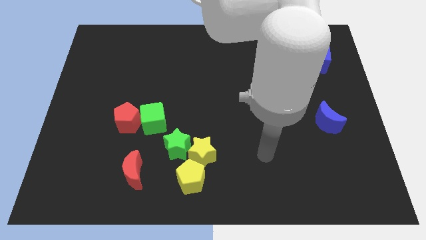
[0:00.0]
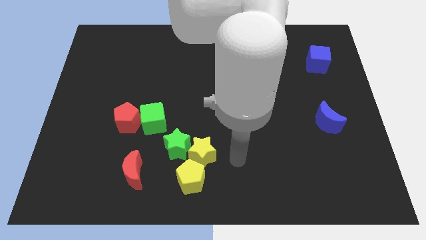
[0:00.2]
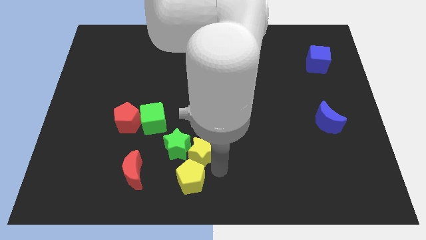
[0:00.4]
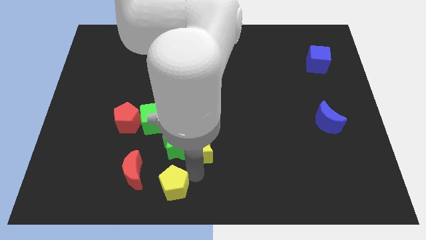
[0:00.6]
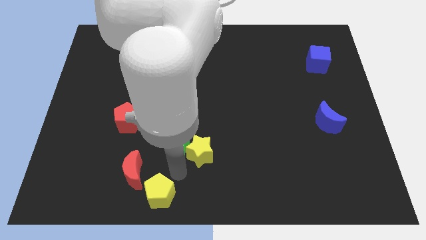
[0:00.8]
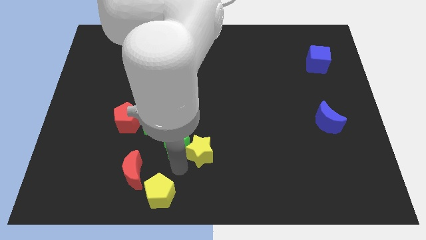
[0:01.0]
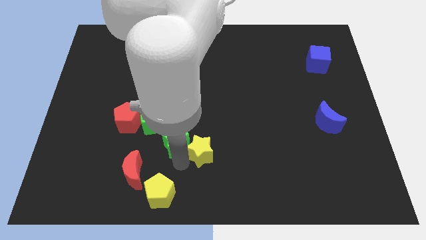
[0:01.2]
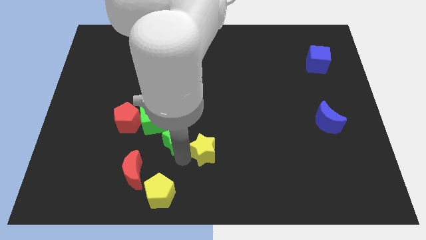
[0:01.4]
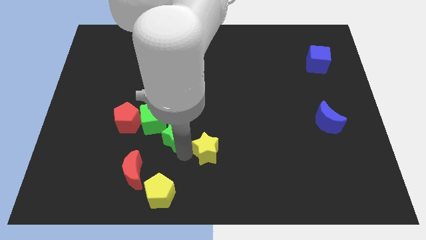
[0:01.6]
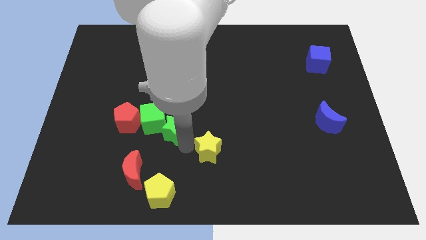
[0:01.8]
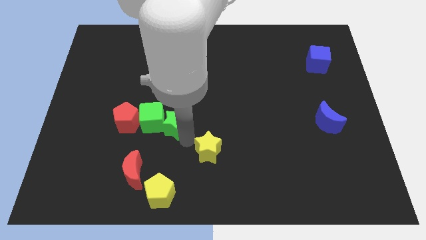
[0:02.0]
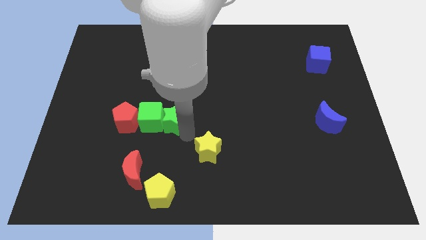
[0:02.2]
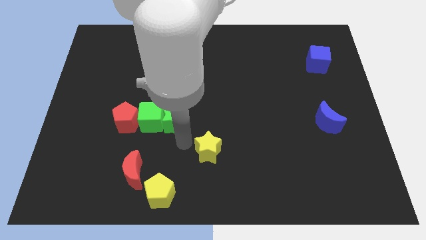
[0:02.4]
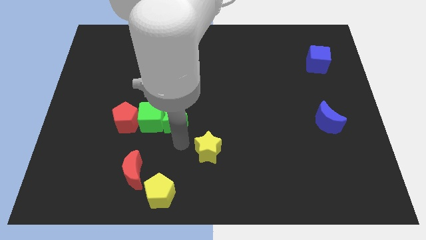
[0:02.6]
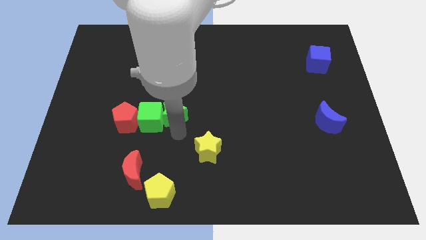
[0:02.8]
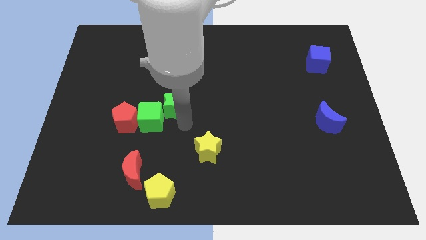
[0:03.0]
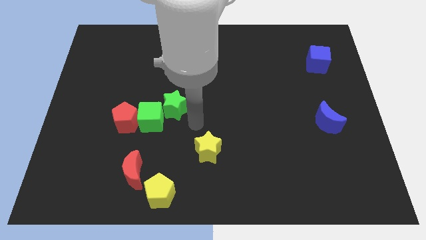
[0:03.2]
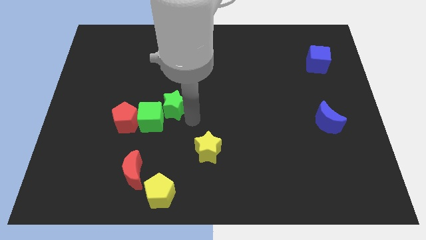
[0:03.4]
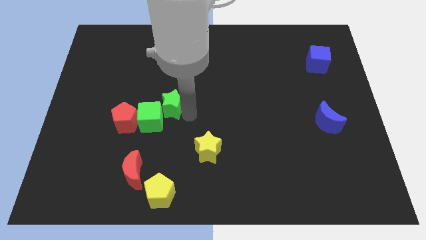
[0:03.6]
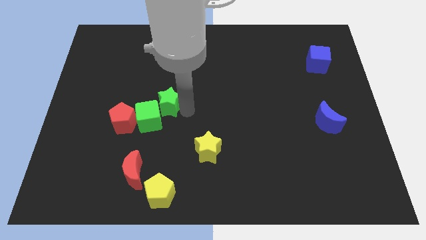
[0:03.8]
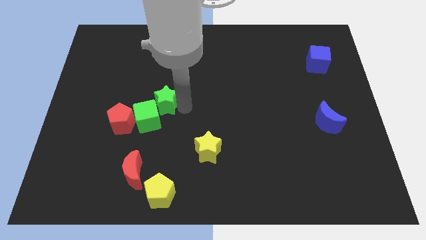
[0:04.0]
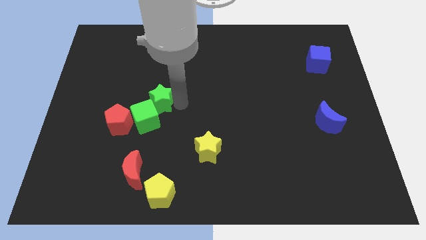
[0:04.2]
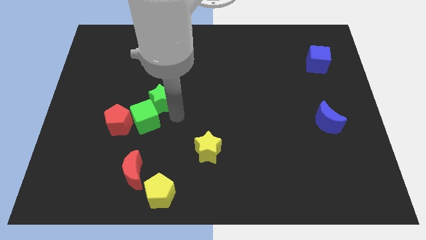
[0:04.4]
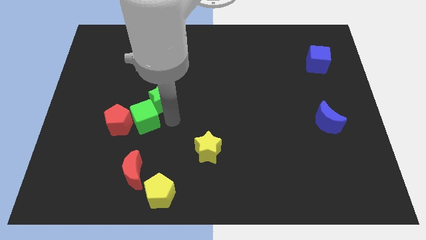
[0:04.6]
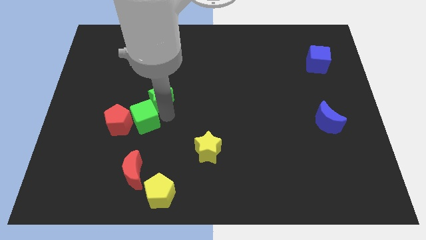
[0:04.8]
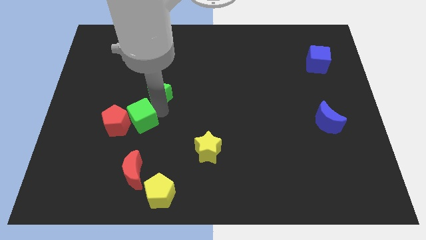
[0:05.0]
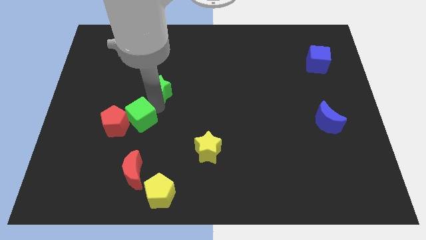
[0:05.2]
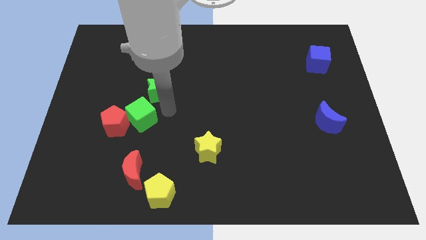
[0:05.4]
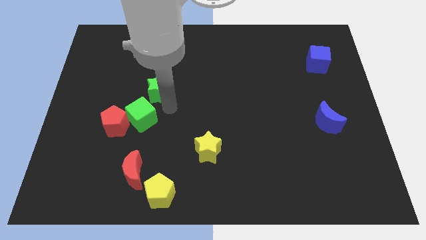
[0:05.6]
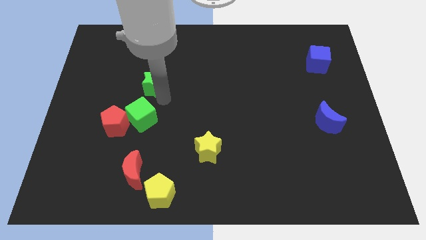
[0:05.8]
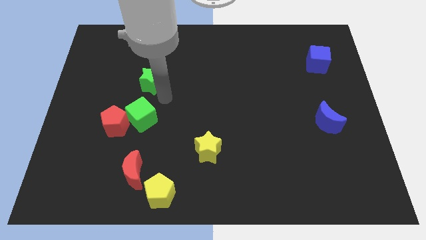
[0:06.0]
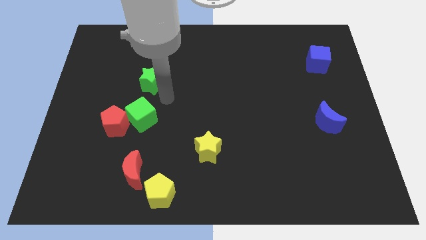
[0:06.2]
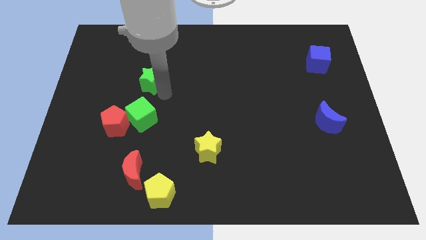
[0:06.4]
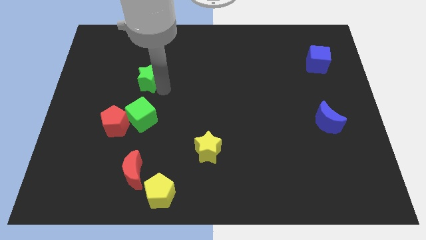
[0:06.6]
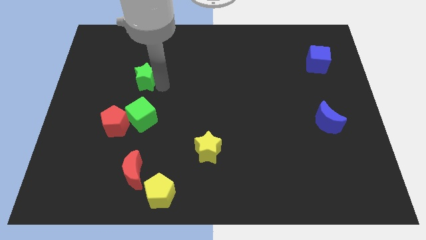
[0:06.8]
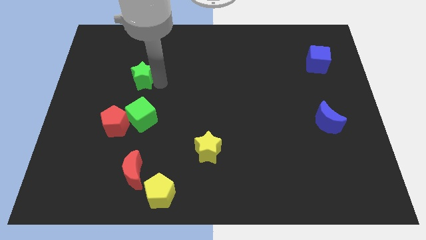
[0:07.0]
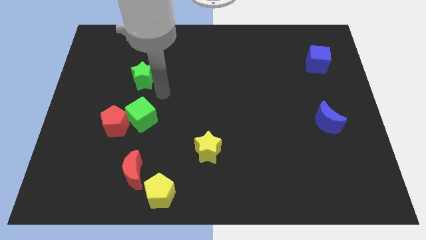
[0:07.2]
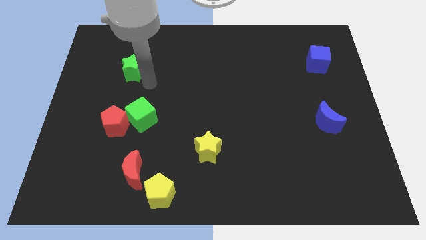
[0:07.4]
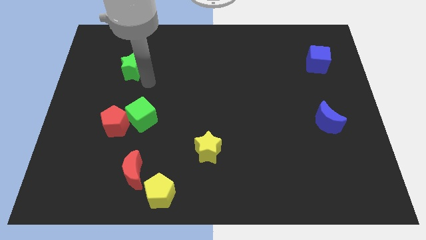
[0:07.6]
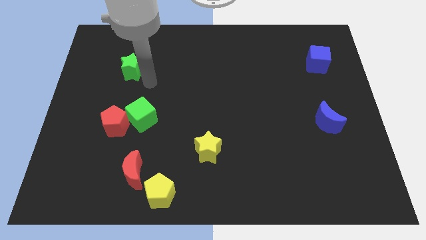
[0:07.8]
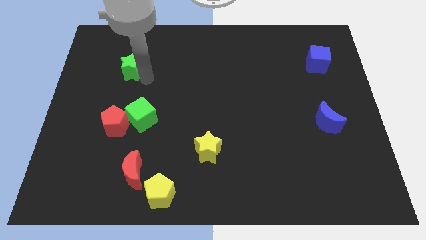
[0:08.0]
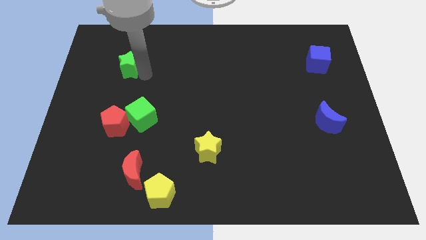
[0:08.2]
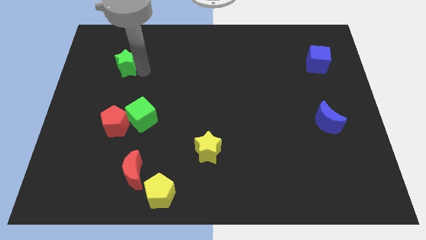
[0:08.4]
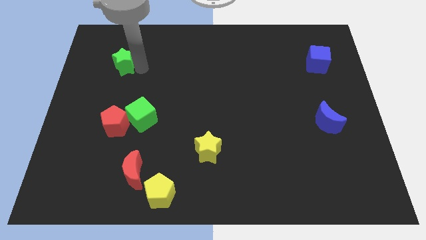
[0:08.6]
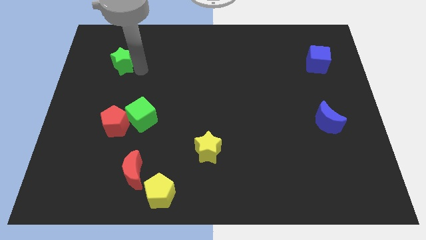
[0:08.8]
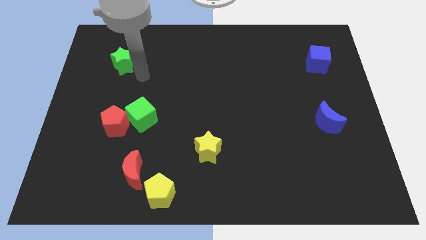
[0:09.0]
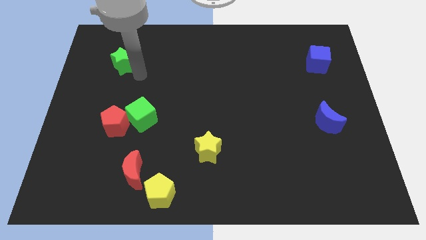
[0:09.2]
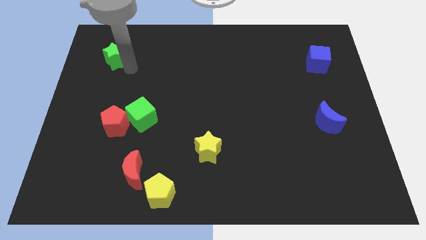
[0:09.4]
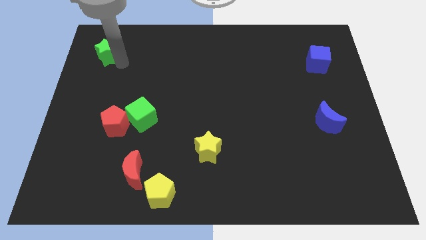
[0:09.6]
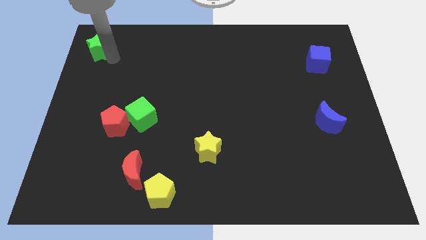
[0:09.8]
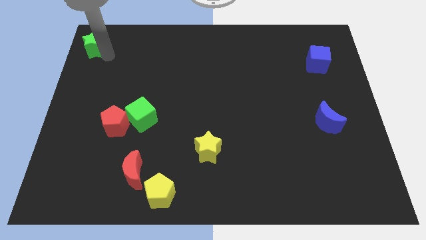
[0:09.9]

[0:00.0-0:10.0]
put the green star to the top left of the board
